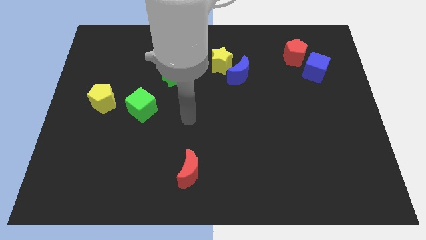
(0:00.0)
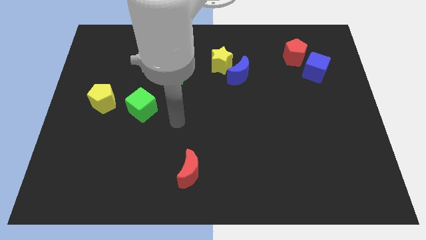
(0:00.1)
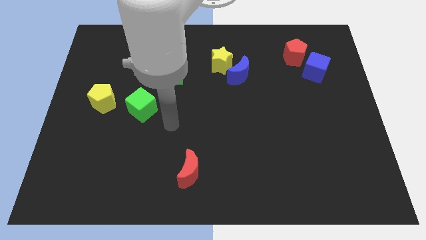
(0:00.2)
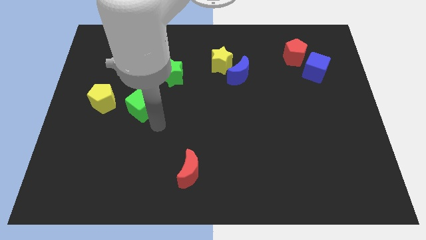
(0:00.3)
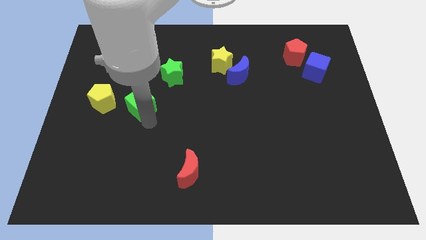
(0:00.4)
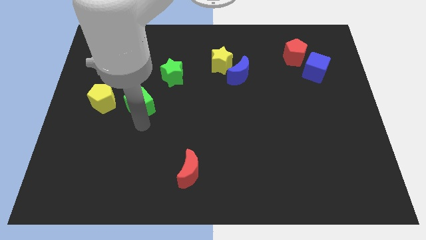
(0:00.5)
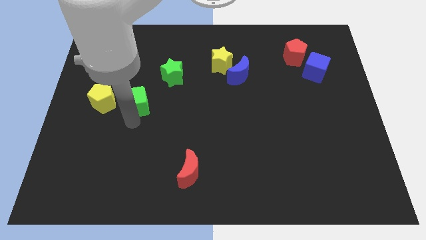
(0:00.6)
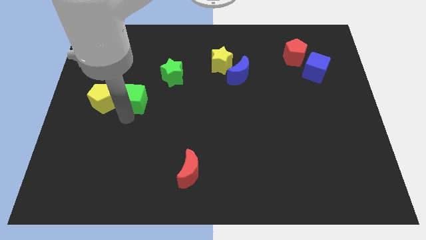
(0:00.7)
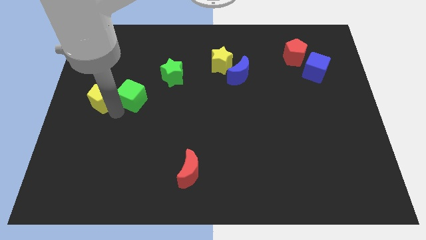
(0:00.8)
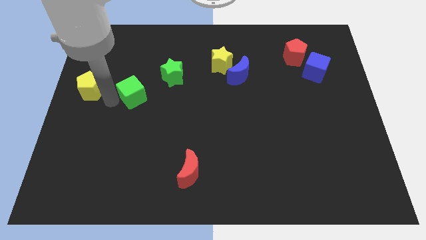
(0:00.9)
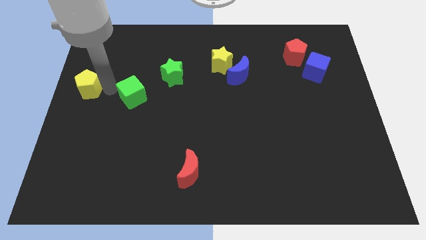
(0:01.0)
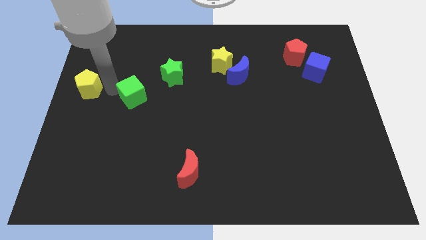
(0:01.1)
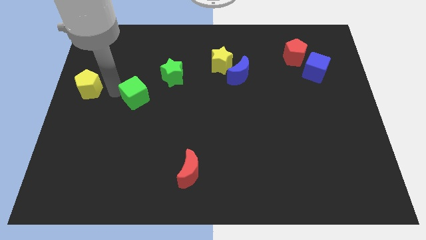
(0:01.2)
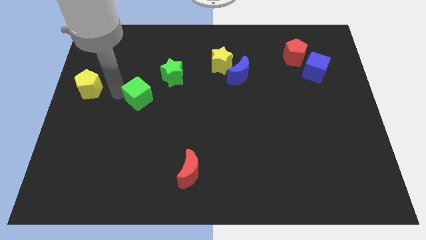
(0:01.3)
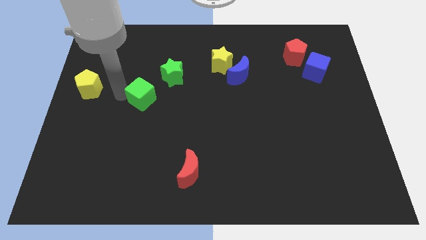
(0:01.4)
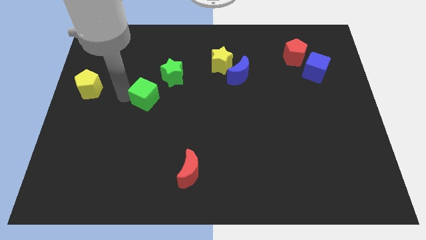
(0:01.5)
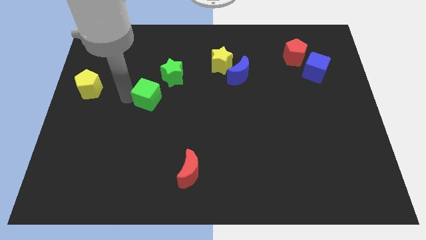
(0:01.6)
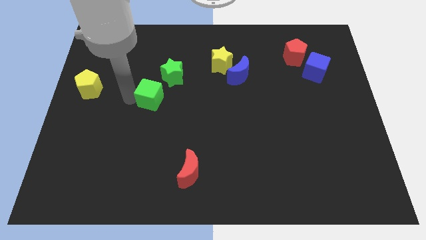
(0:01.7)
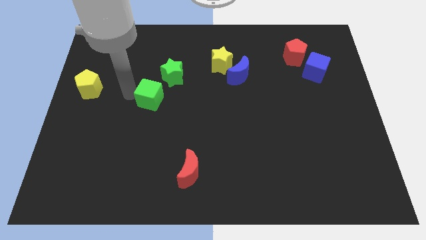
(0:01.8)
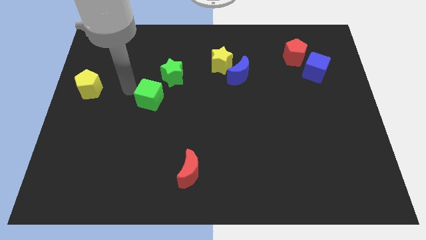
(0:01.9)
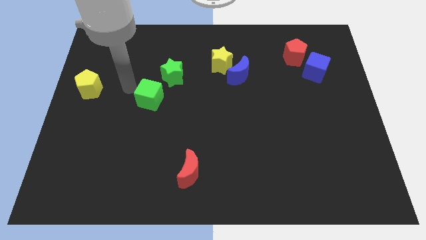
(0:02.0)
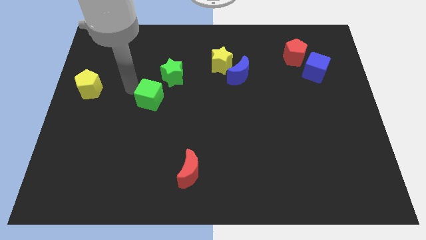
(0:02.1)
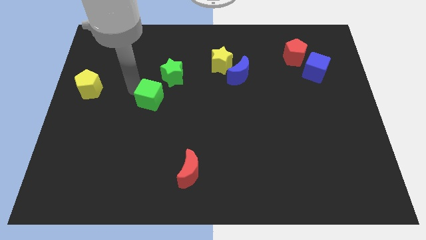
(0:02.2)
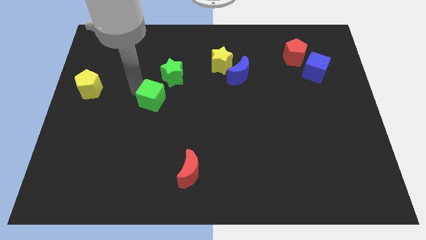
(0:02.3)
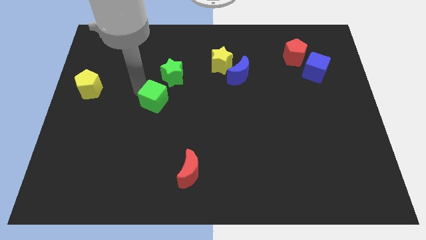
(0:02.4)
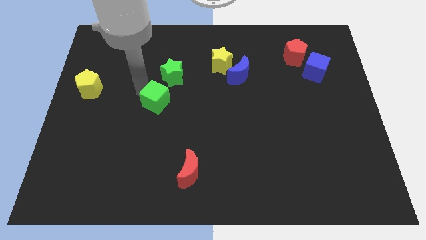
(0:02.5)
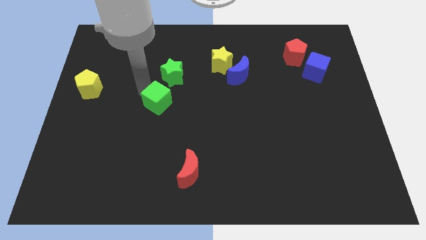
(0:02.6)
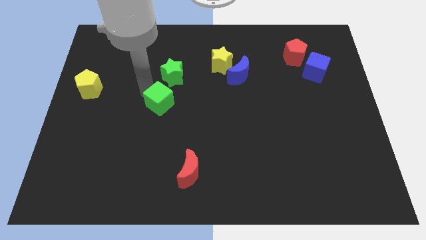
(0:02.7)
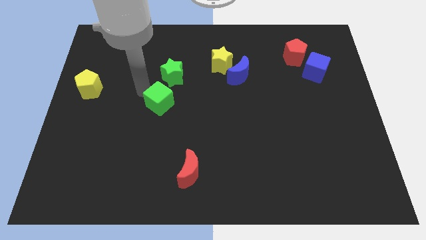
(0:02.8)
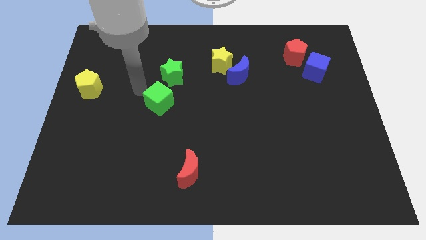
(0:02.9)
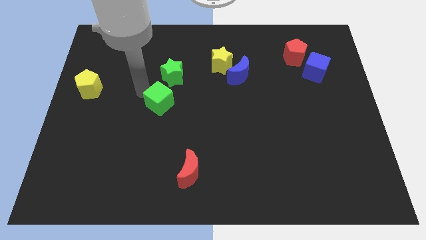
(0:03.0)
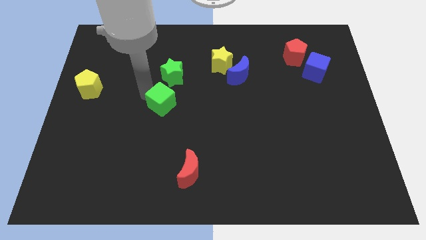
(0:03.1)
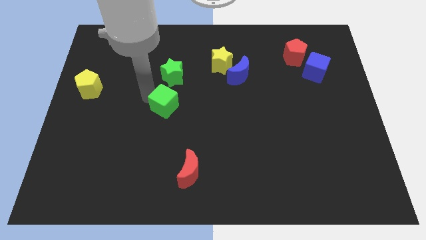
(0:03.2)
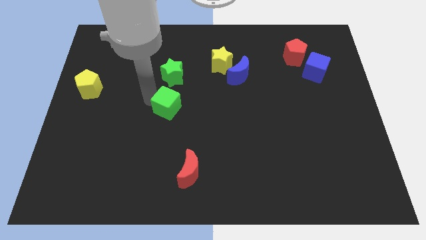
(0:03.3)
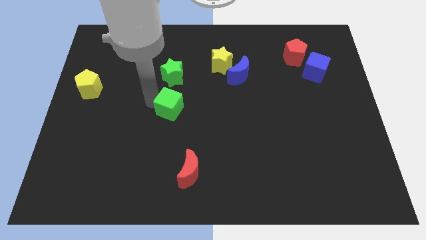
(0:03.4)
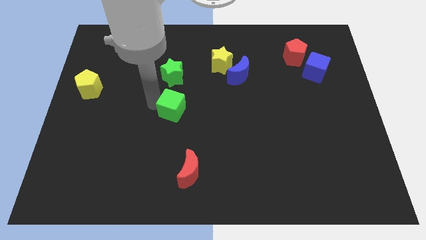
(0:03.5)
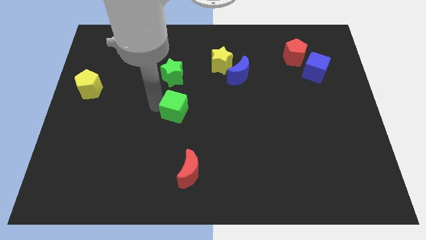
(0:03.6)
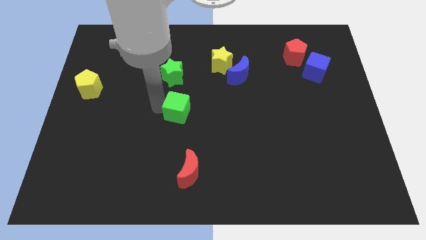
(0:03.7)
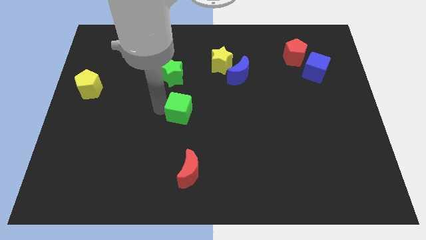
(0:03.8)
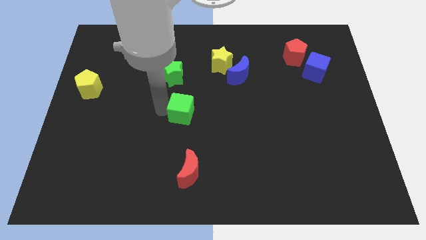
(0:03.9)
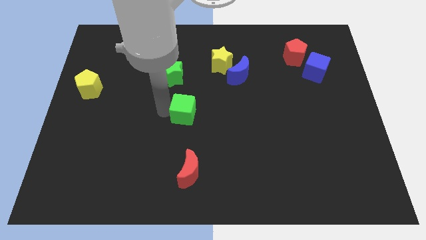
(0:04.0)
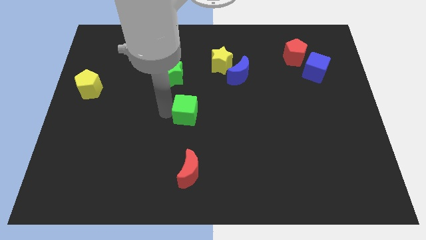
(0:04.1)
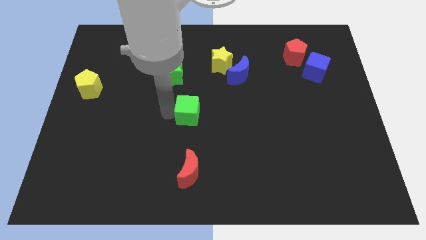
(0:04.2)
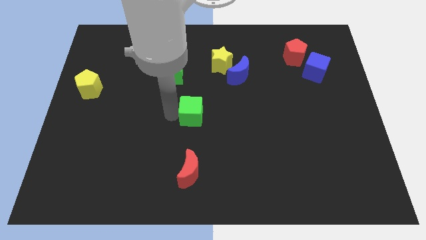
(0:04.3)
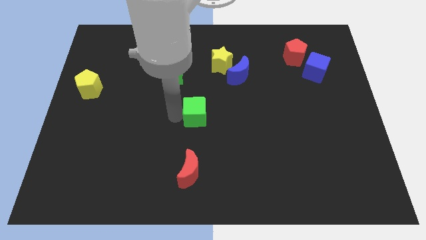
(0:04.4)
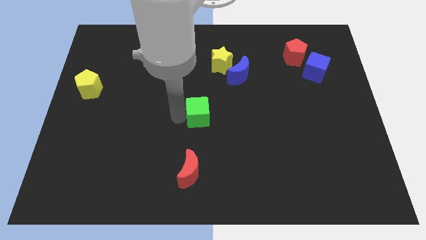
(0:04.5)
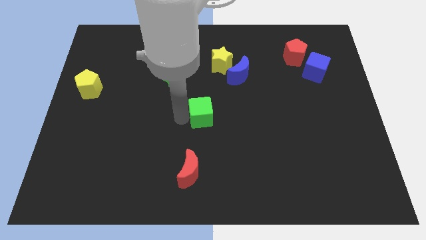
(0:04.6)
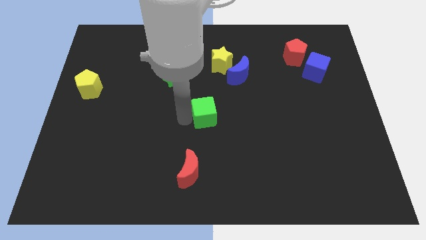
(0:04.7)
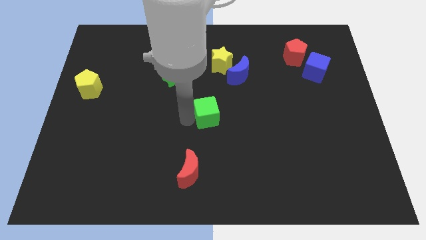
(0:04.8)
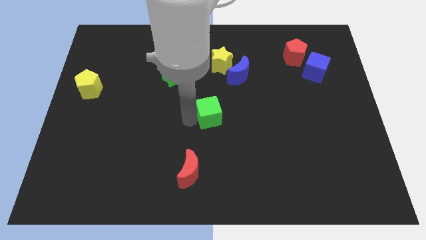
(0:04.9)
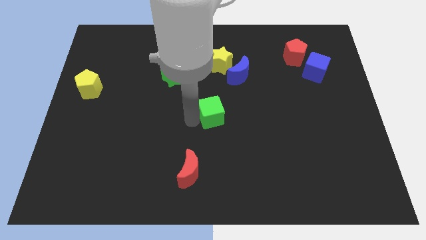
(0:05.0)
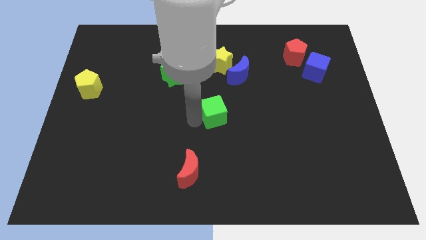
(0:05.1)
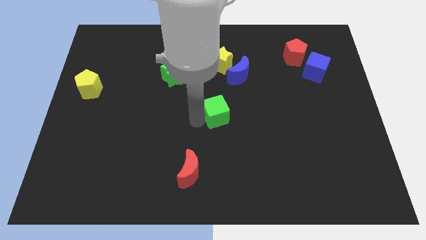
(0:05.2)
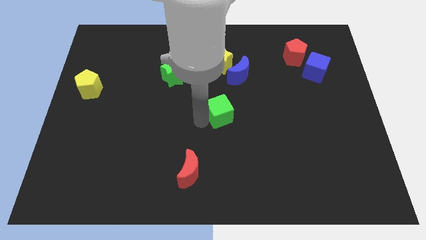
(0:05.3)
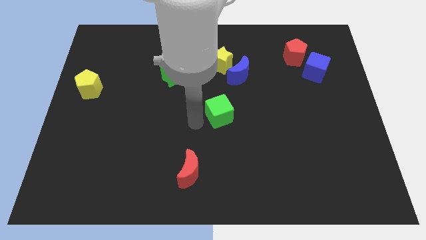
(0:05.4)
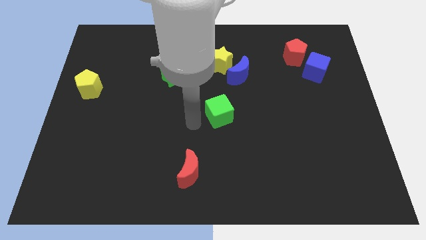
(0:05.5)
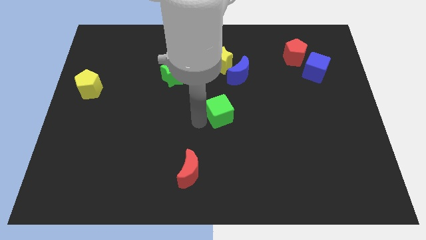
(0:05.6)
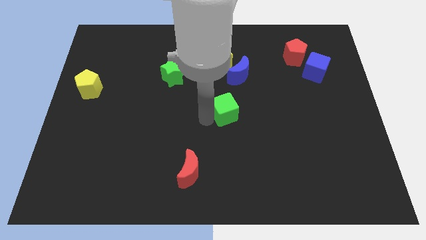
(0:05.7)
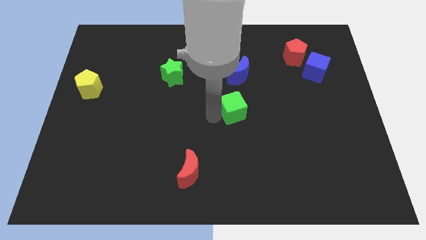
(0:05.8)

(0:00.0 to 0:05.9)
move the green cube to the right

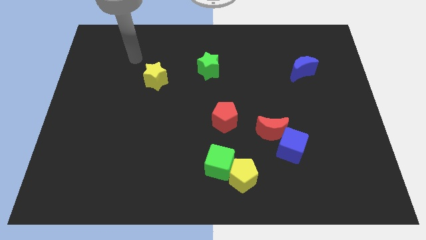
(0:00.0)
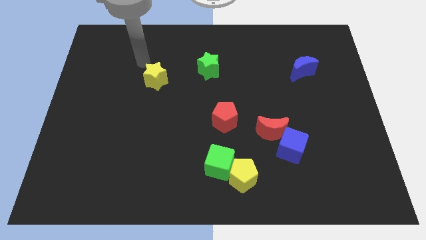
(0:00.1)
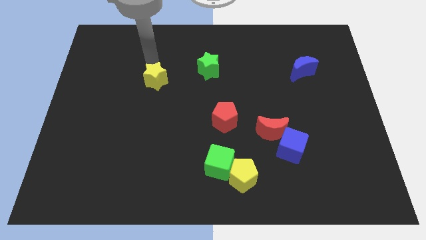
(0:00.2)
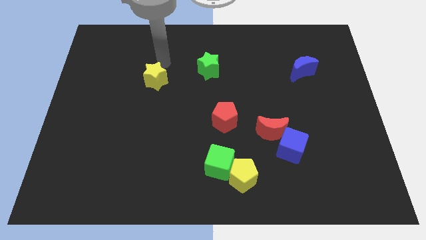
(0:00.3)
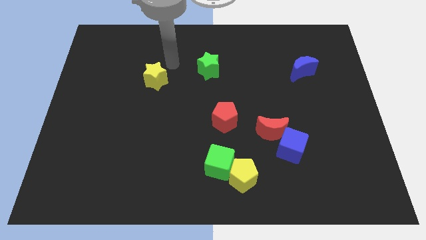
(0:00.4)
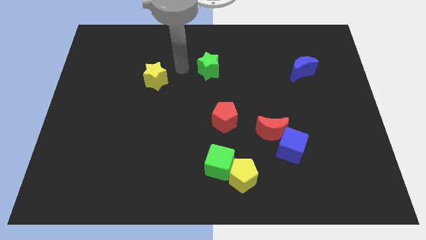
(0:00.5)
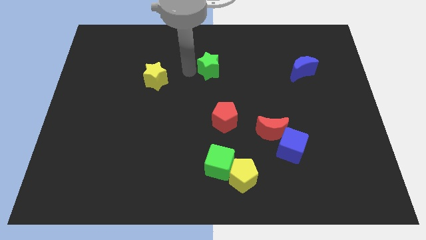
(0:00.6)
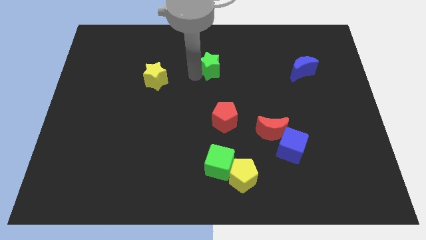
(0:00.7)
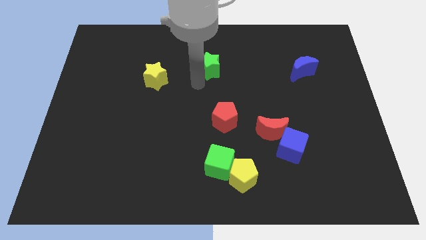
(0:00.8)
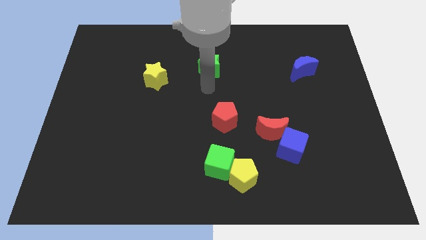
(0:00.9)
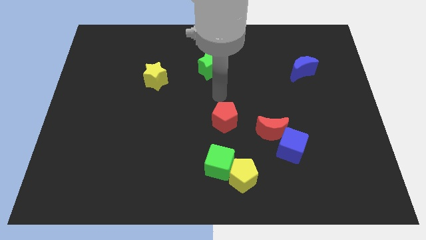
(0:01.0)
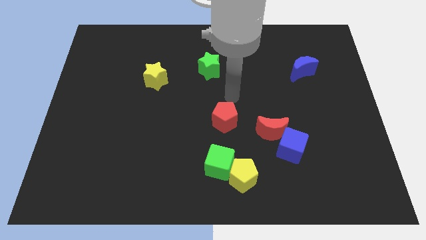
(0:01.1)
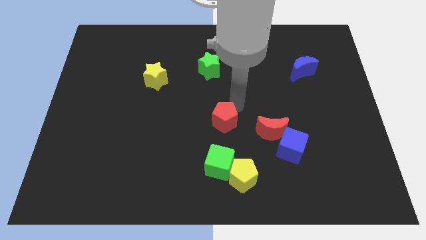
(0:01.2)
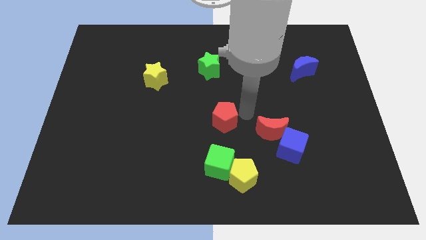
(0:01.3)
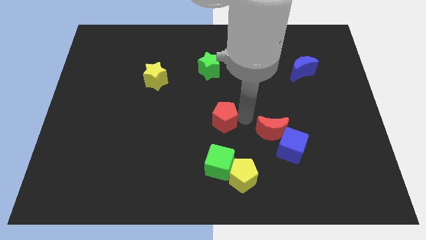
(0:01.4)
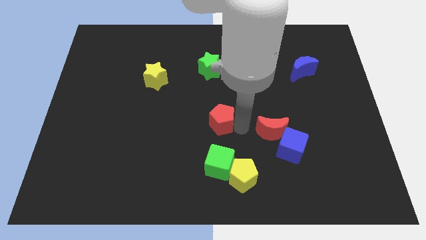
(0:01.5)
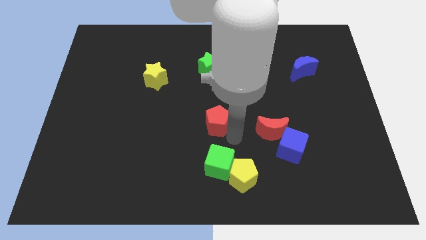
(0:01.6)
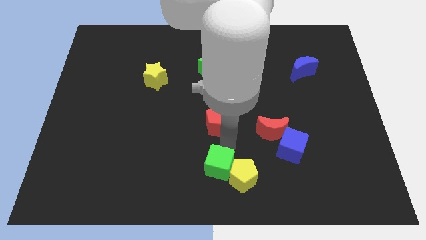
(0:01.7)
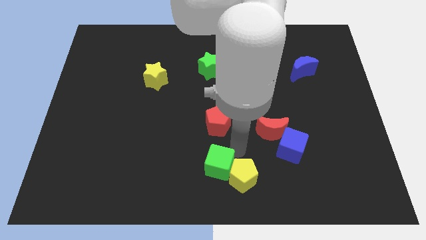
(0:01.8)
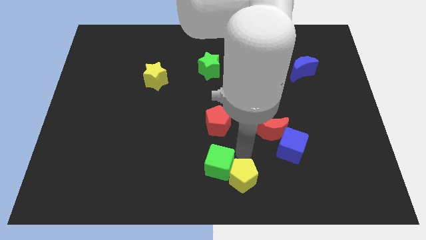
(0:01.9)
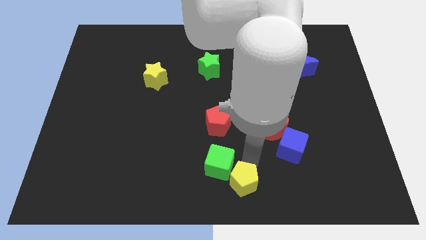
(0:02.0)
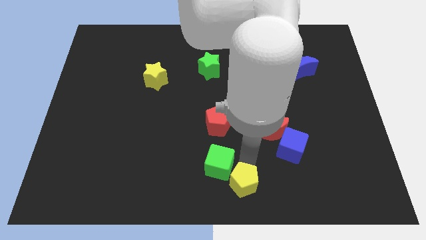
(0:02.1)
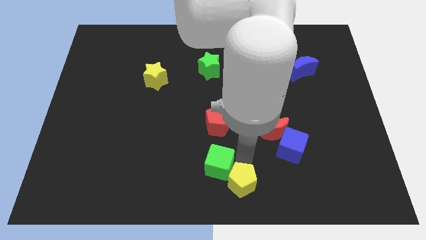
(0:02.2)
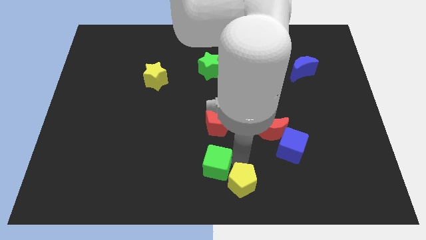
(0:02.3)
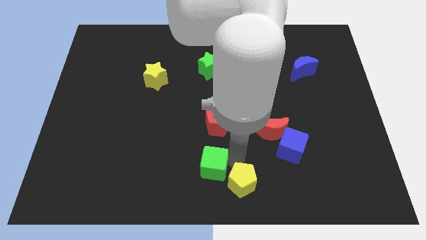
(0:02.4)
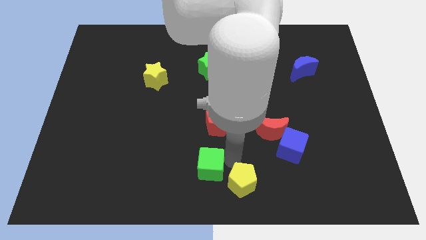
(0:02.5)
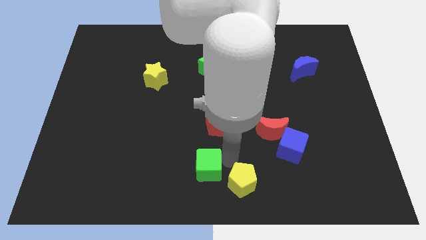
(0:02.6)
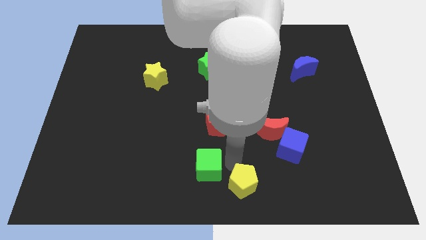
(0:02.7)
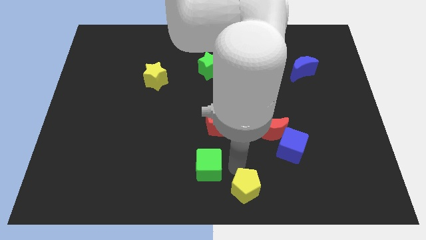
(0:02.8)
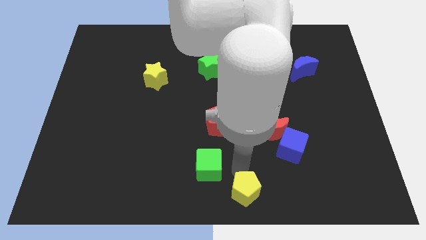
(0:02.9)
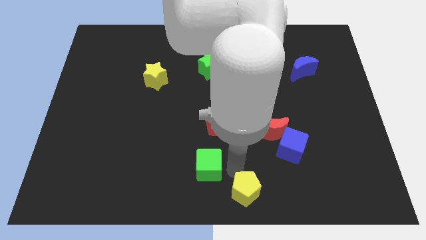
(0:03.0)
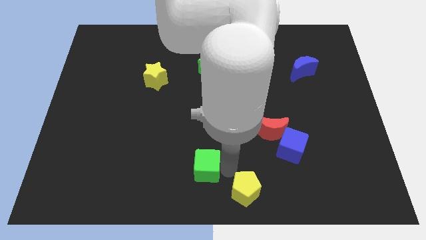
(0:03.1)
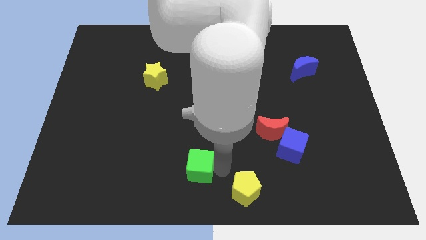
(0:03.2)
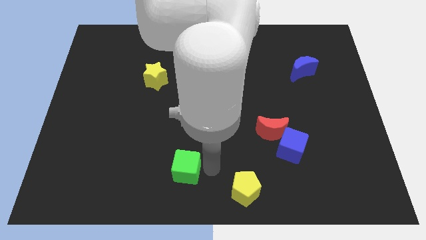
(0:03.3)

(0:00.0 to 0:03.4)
slightly slide the green cube left
